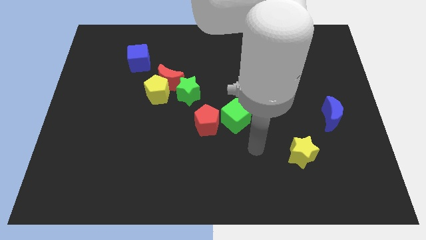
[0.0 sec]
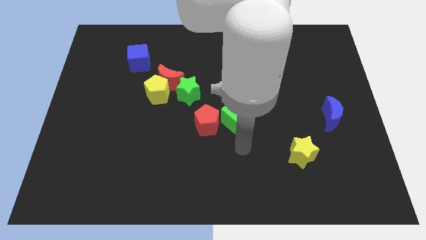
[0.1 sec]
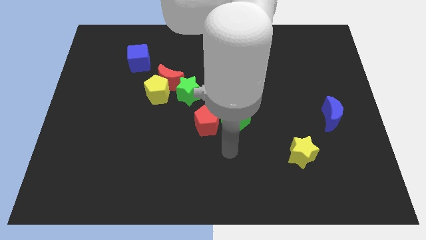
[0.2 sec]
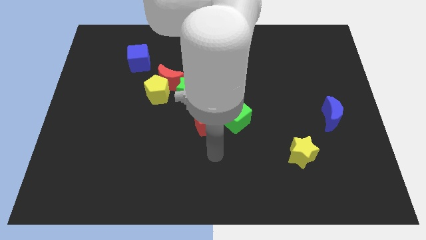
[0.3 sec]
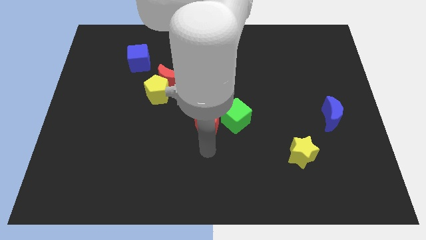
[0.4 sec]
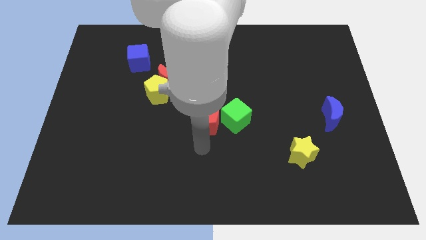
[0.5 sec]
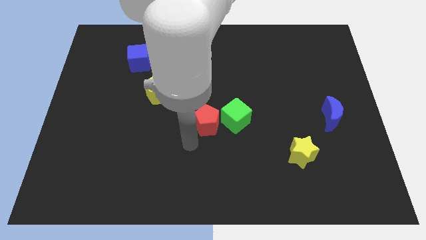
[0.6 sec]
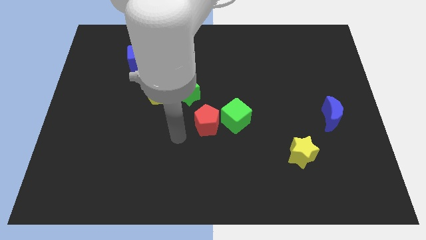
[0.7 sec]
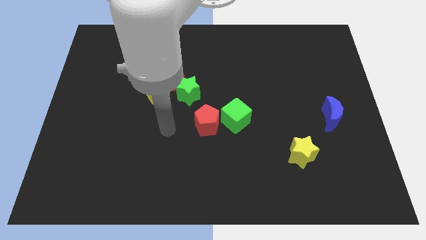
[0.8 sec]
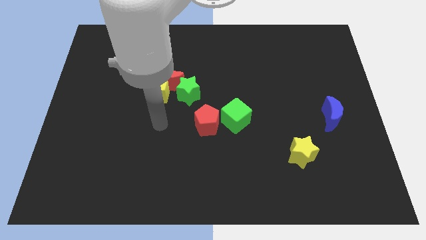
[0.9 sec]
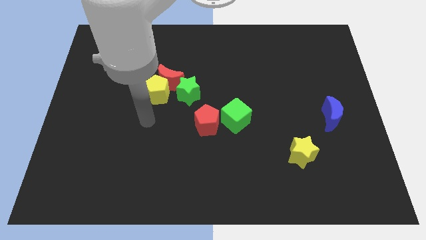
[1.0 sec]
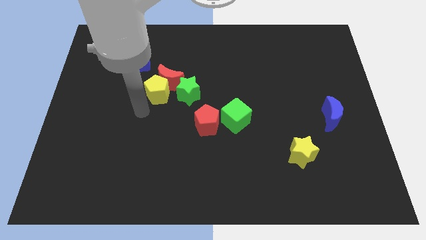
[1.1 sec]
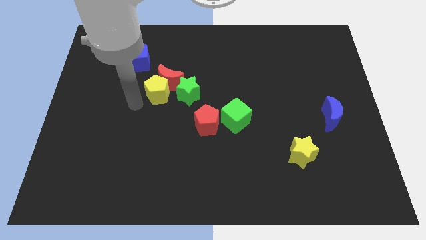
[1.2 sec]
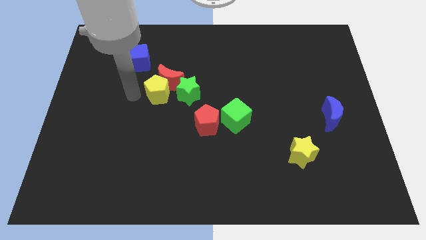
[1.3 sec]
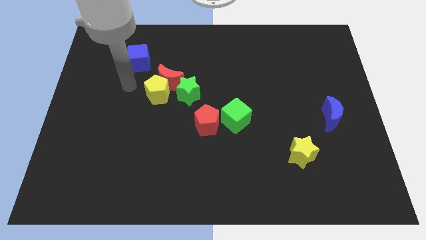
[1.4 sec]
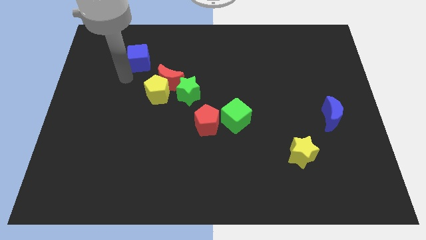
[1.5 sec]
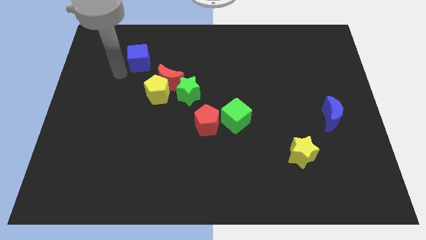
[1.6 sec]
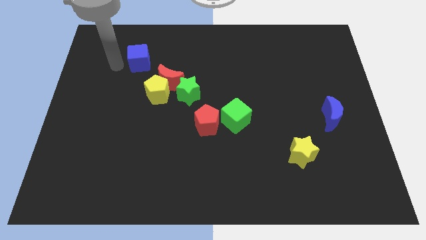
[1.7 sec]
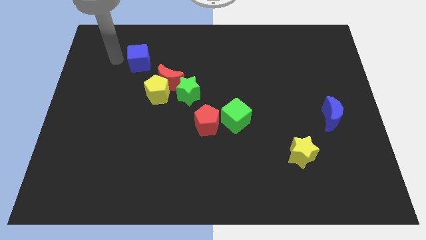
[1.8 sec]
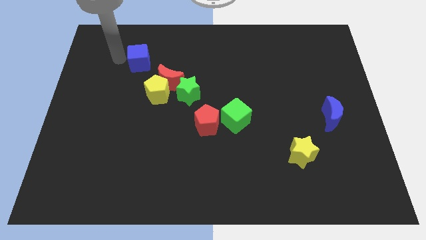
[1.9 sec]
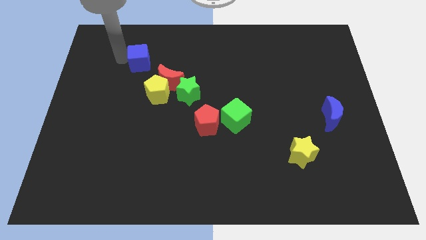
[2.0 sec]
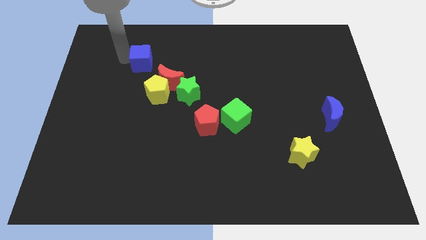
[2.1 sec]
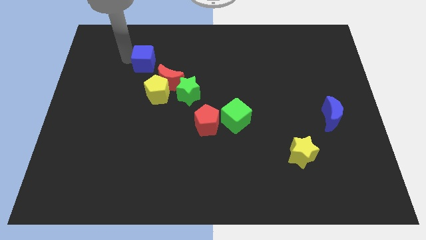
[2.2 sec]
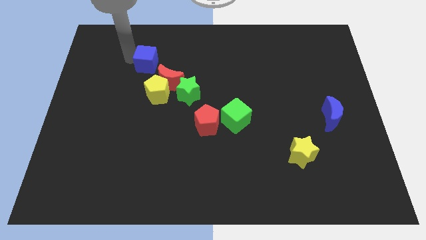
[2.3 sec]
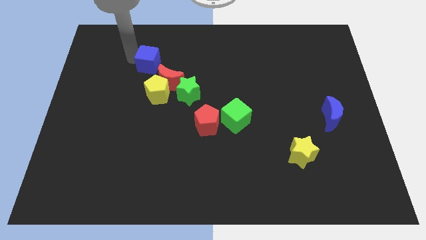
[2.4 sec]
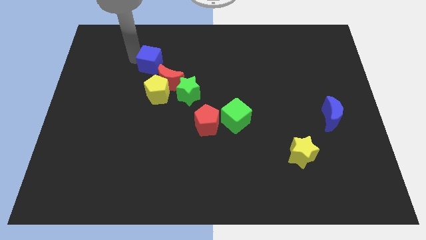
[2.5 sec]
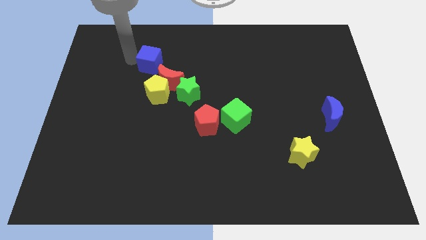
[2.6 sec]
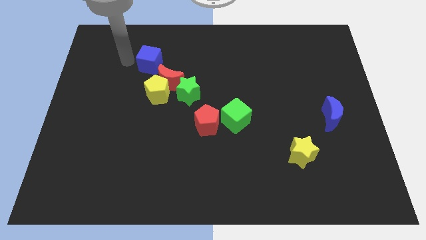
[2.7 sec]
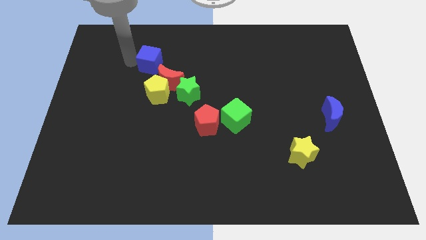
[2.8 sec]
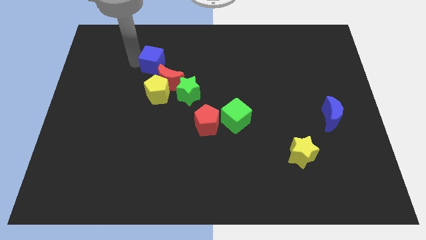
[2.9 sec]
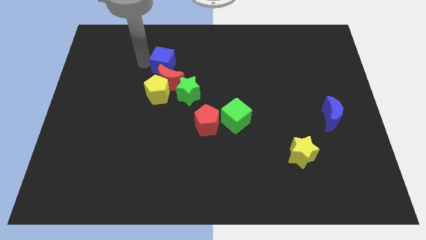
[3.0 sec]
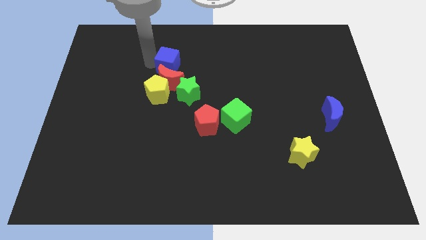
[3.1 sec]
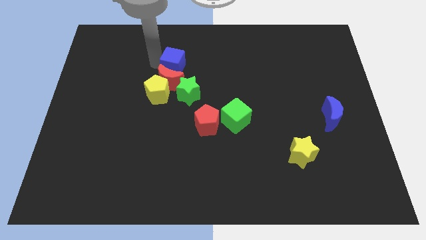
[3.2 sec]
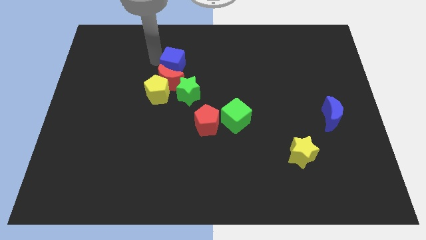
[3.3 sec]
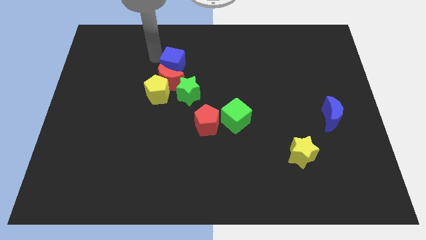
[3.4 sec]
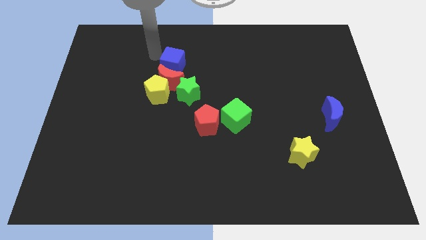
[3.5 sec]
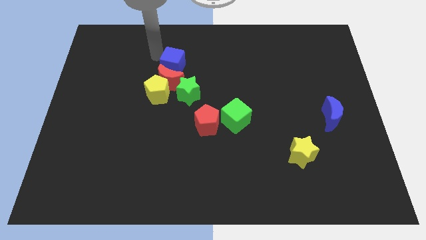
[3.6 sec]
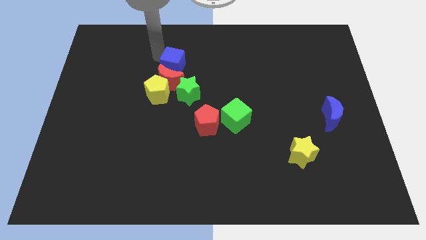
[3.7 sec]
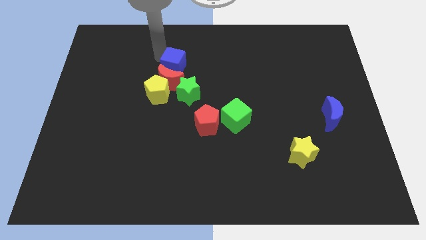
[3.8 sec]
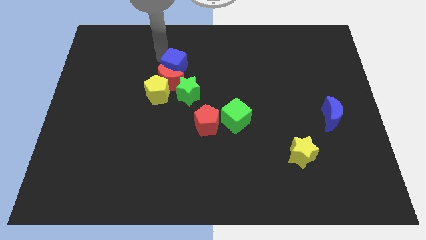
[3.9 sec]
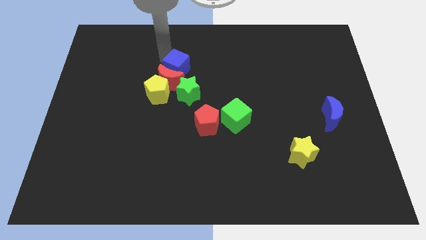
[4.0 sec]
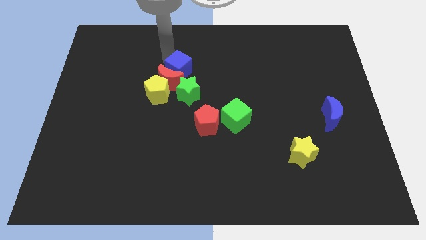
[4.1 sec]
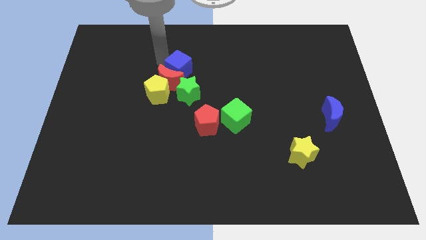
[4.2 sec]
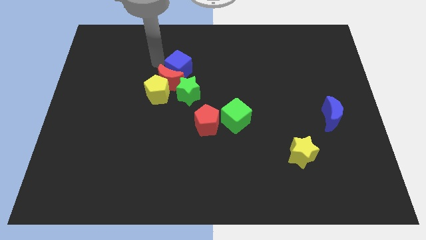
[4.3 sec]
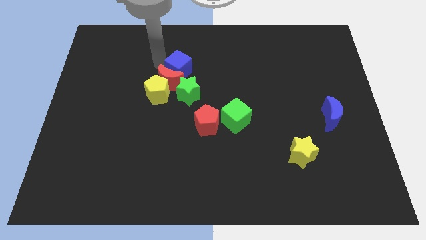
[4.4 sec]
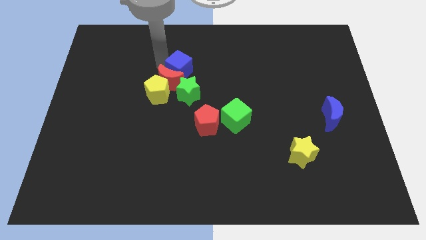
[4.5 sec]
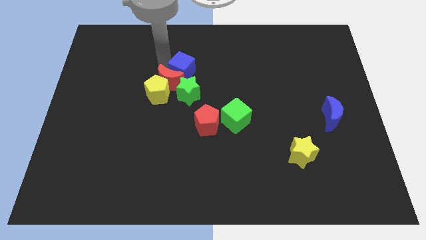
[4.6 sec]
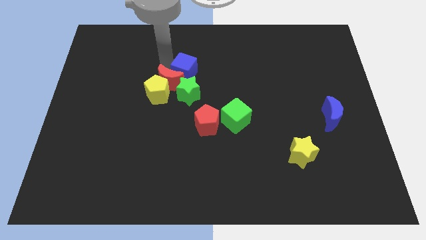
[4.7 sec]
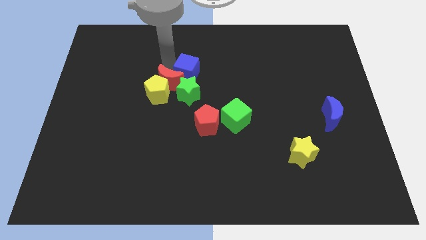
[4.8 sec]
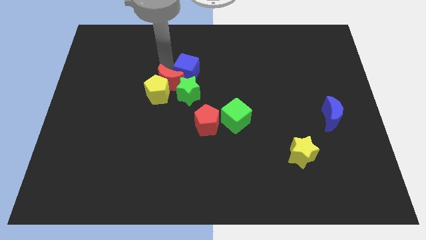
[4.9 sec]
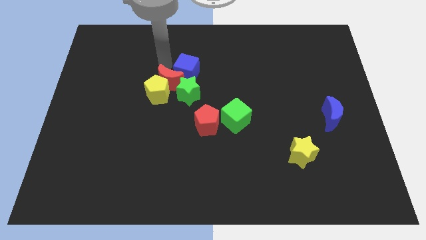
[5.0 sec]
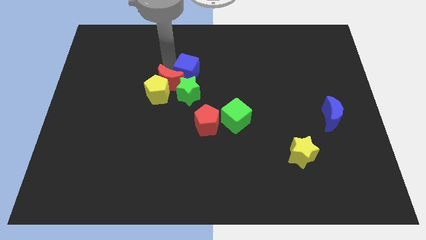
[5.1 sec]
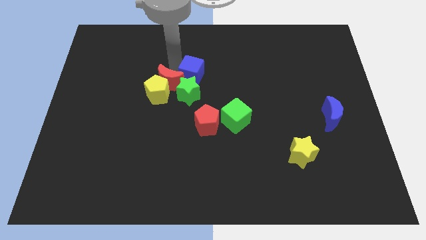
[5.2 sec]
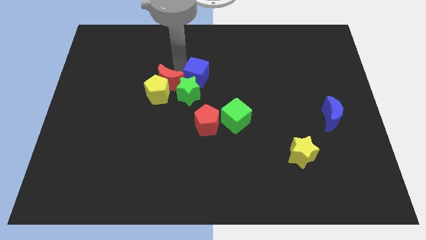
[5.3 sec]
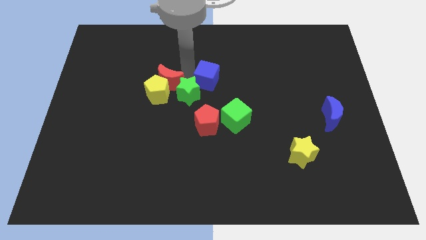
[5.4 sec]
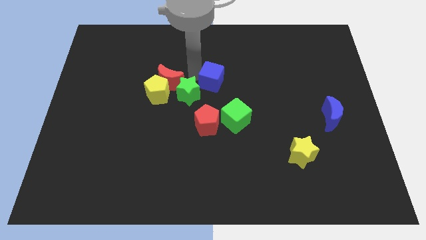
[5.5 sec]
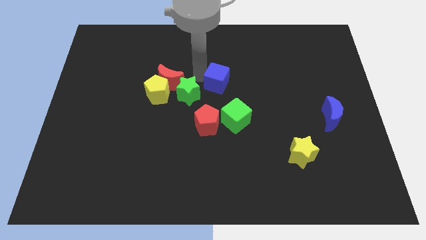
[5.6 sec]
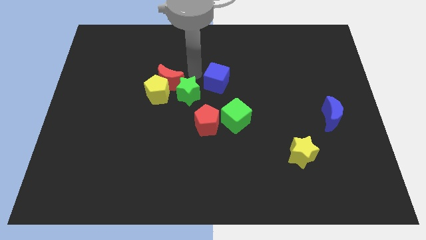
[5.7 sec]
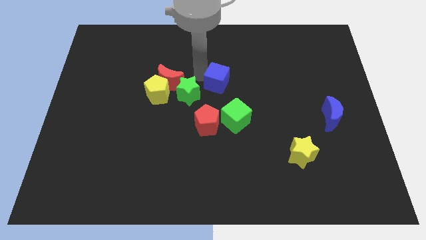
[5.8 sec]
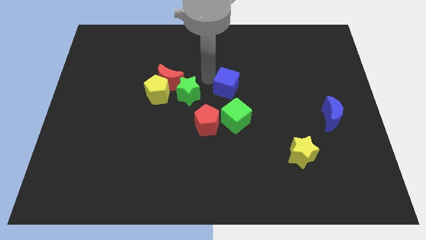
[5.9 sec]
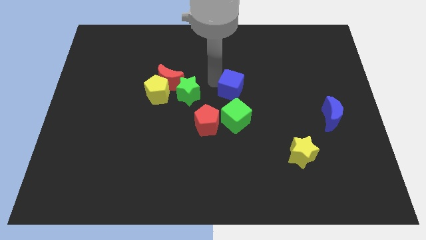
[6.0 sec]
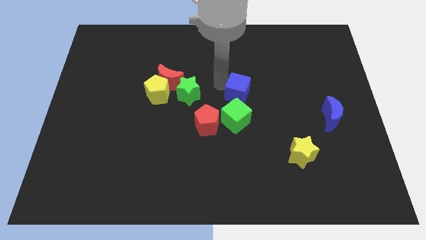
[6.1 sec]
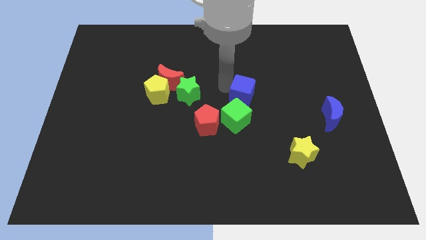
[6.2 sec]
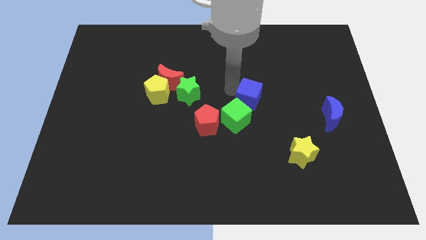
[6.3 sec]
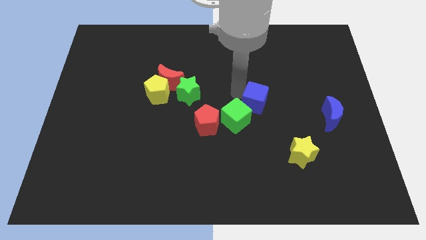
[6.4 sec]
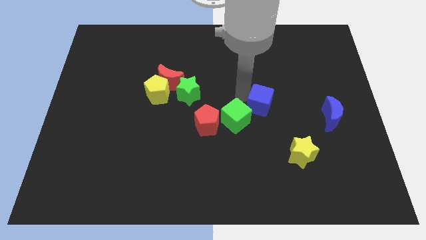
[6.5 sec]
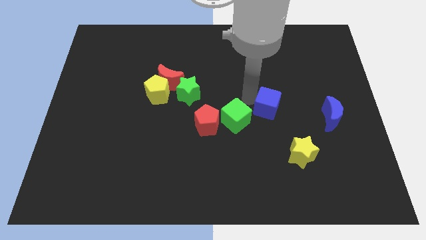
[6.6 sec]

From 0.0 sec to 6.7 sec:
put the blue cube to the left side of the blue moon

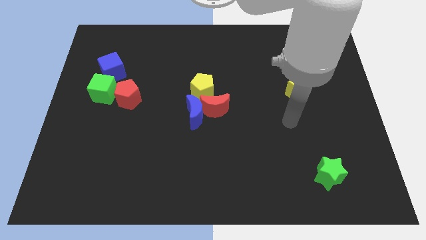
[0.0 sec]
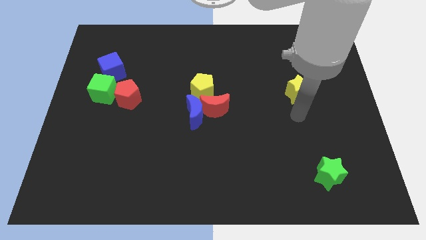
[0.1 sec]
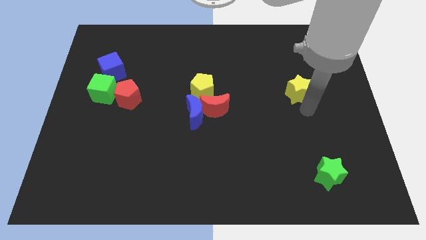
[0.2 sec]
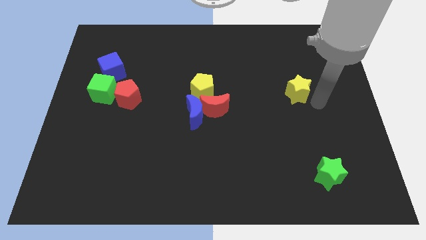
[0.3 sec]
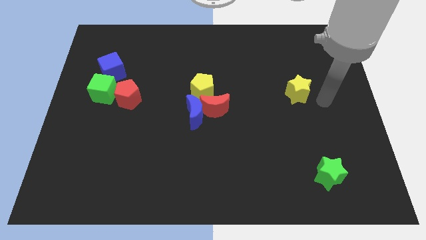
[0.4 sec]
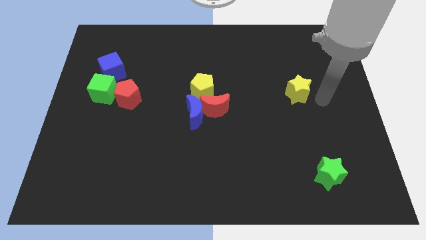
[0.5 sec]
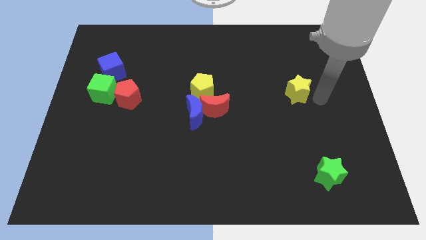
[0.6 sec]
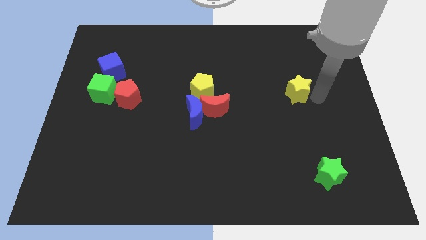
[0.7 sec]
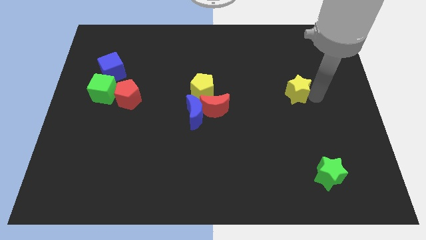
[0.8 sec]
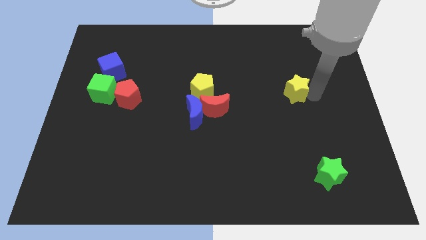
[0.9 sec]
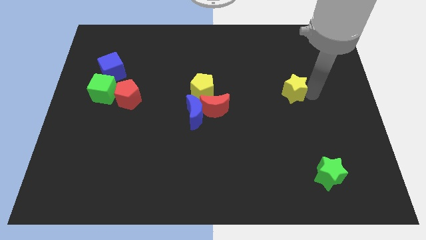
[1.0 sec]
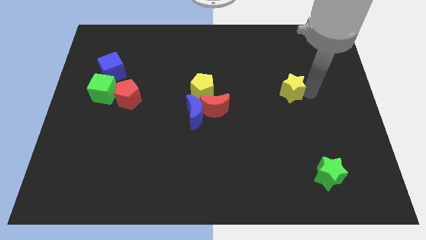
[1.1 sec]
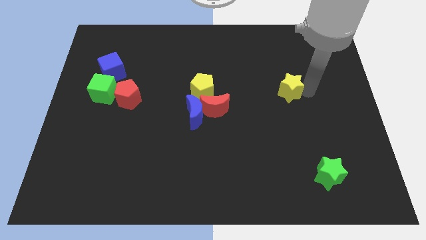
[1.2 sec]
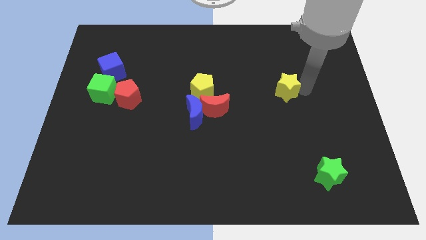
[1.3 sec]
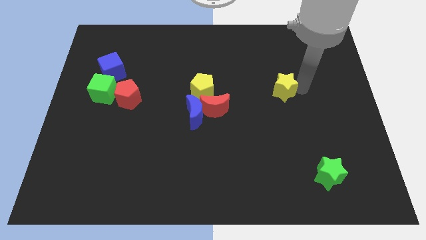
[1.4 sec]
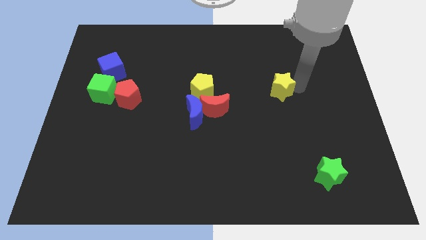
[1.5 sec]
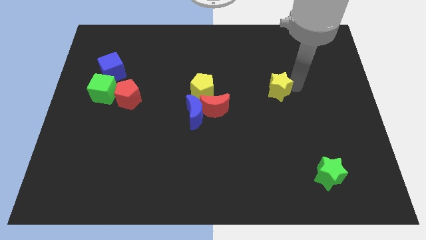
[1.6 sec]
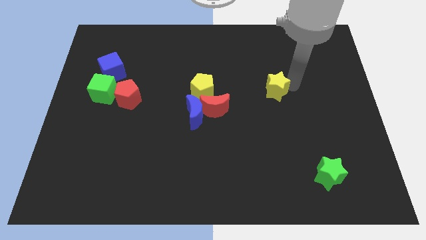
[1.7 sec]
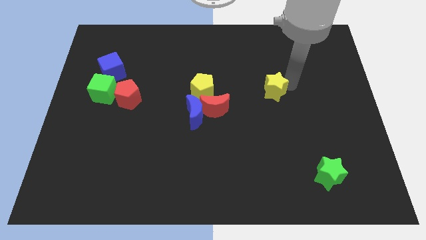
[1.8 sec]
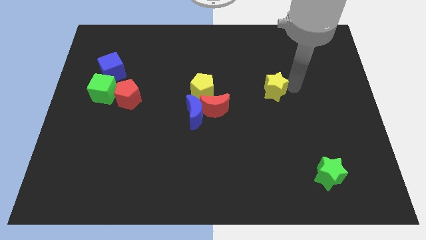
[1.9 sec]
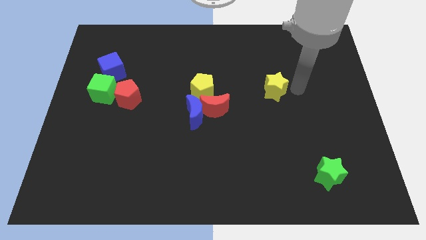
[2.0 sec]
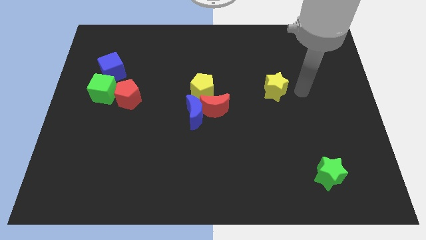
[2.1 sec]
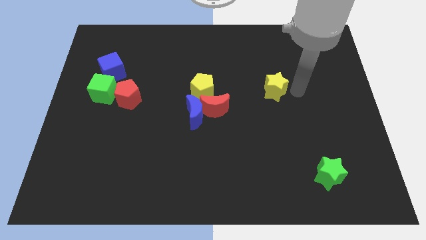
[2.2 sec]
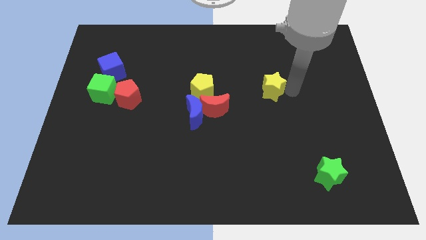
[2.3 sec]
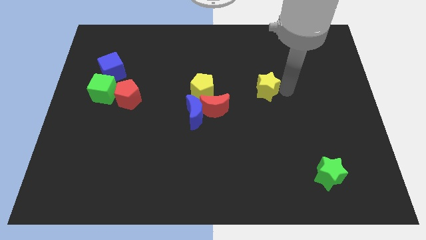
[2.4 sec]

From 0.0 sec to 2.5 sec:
push the yellow star just right of the yellow pentagon
